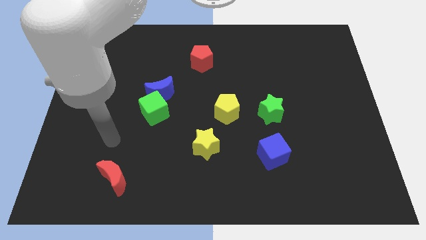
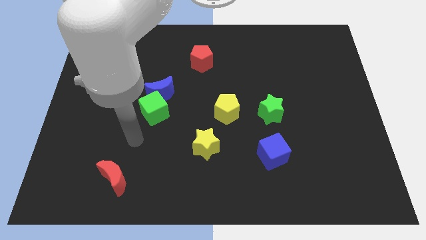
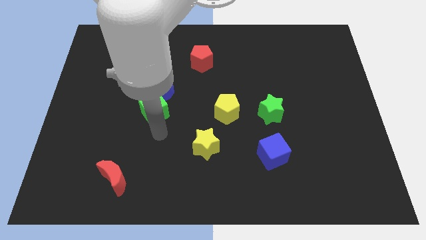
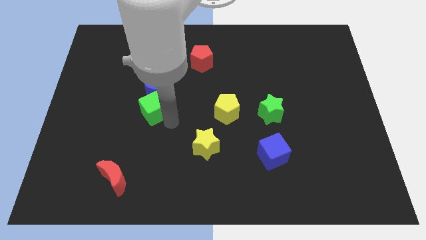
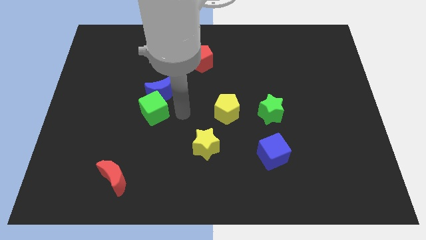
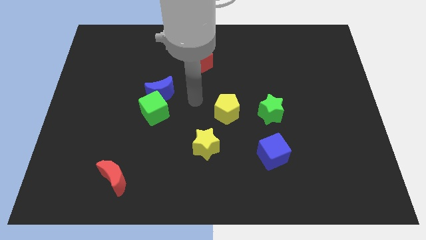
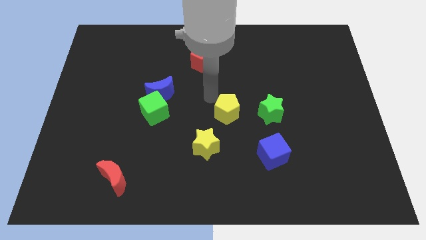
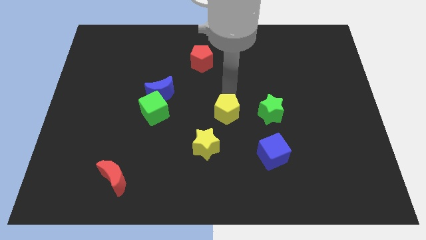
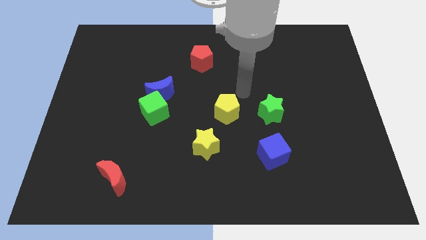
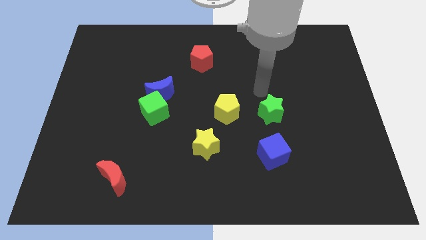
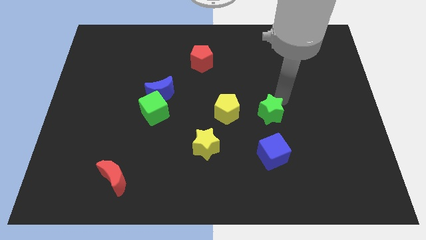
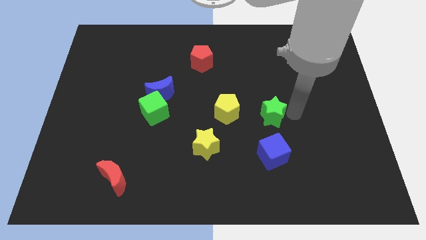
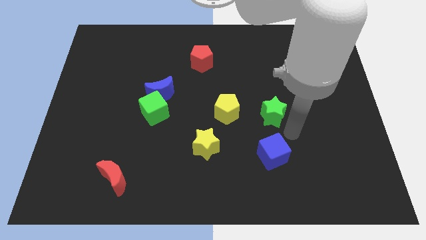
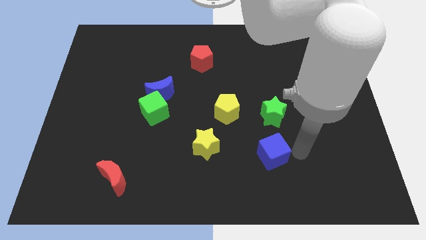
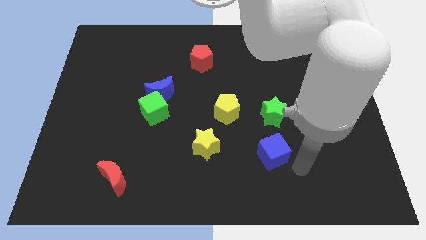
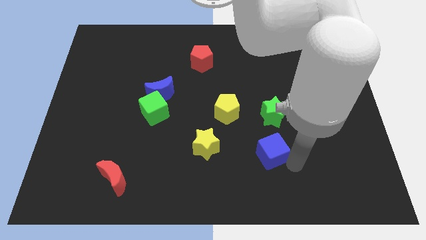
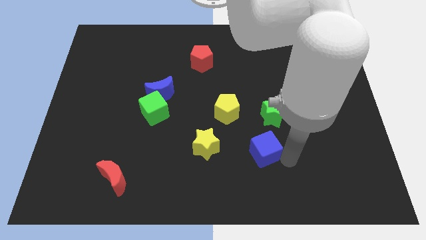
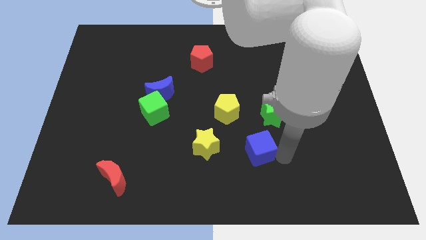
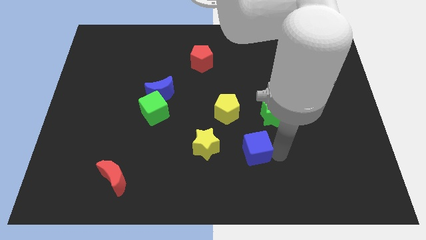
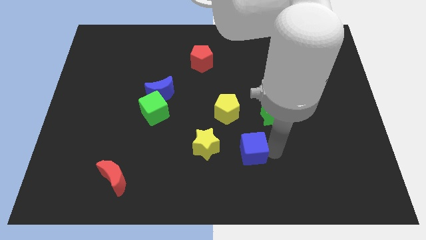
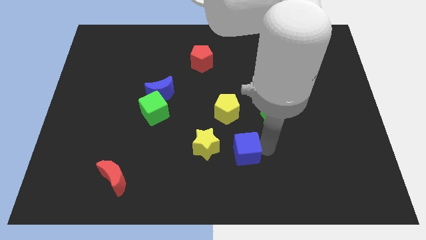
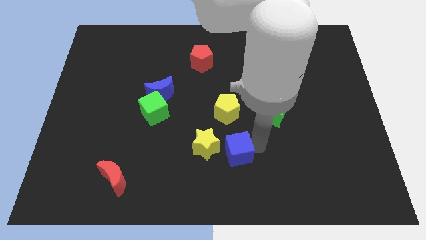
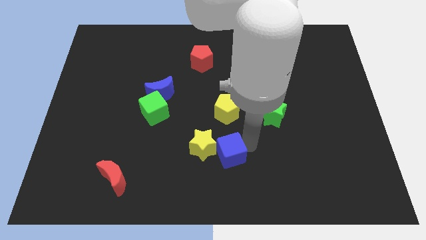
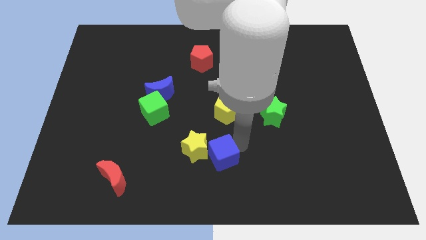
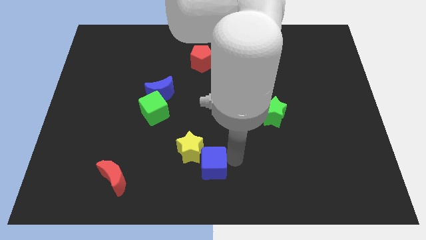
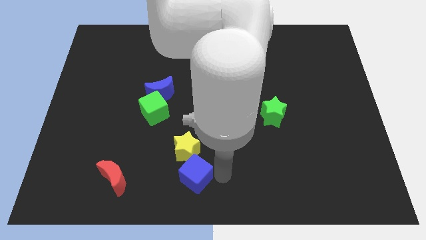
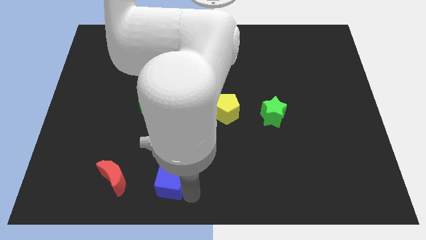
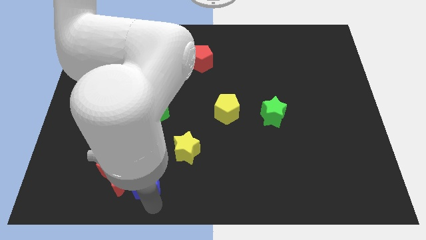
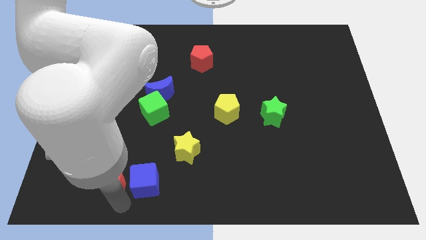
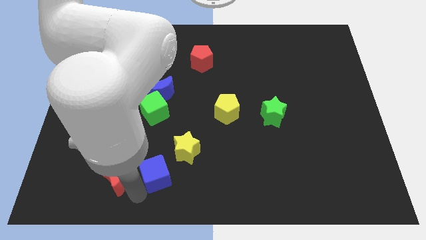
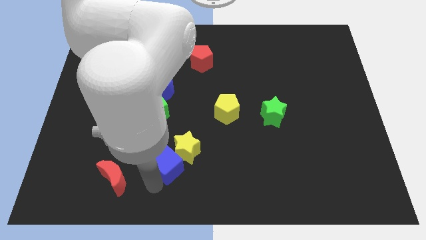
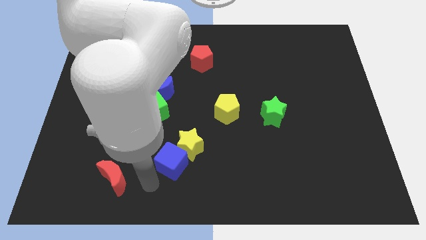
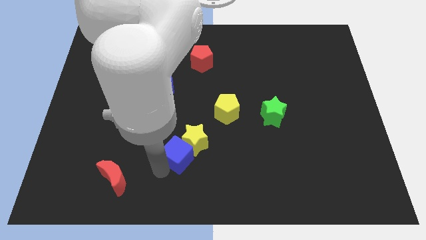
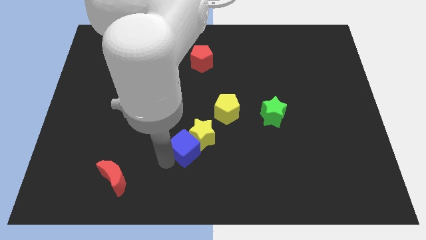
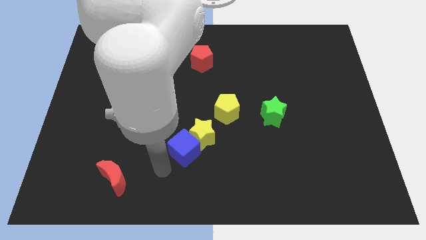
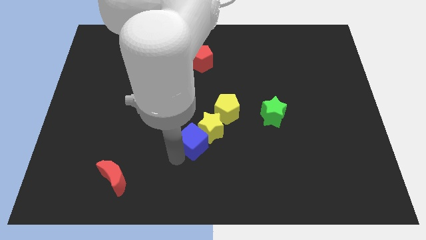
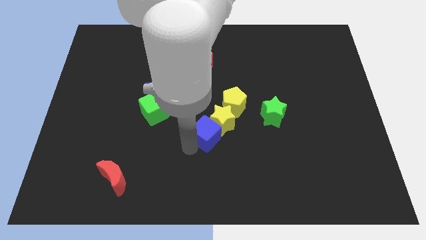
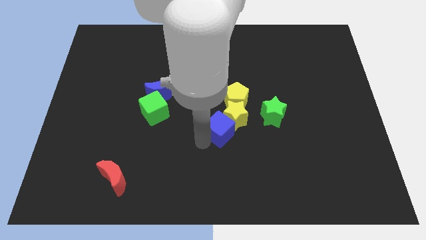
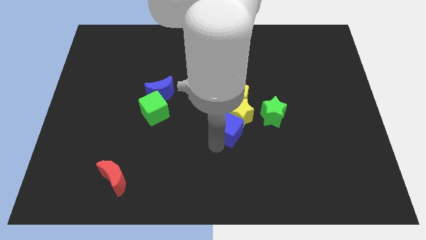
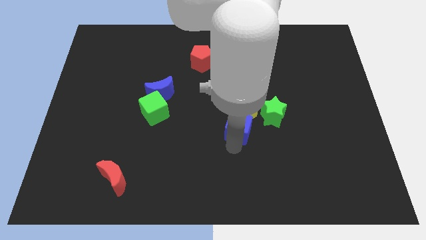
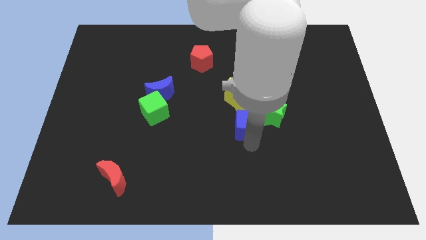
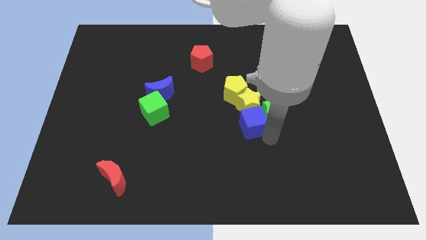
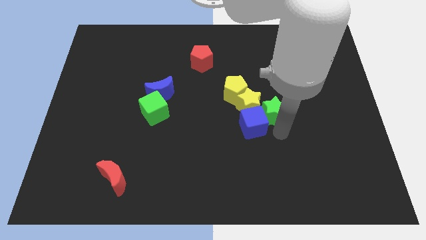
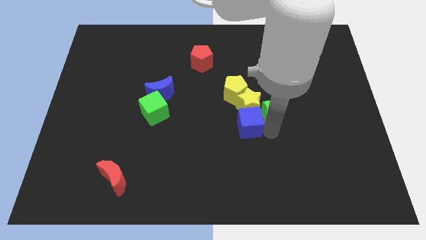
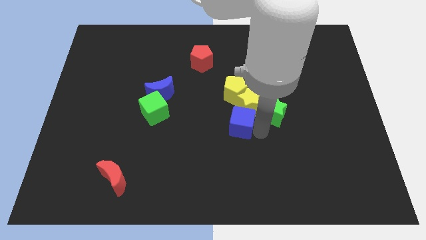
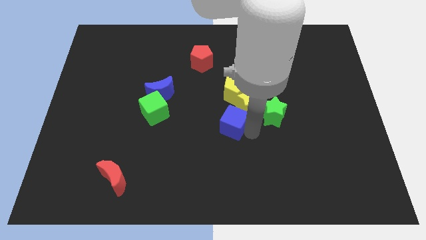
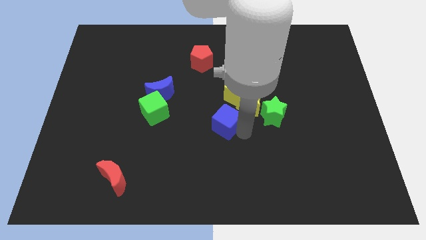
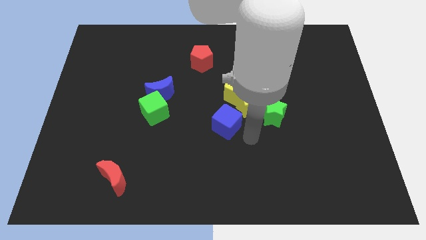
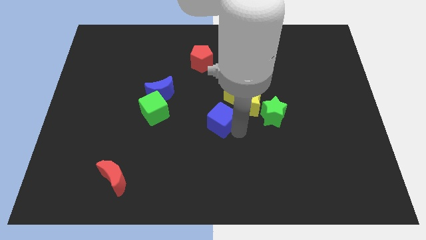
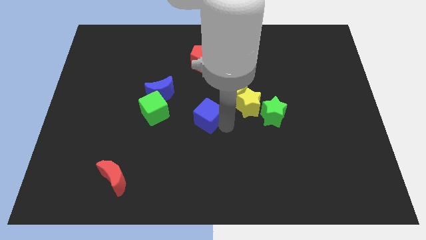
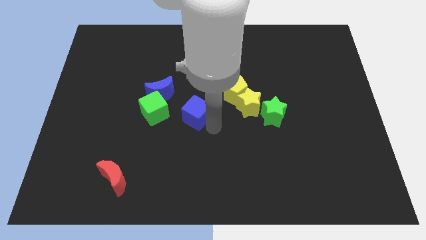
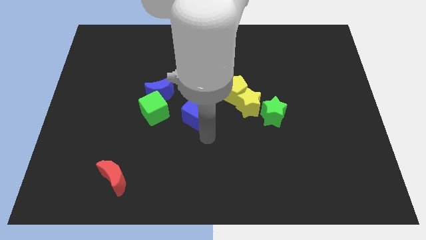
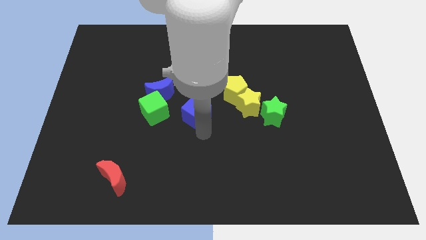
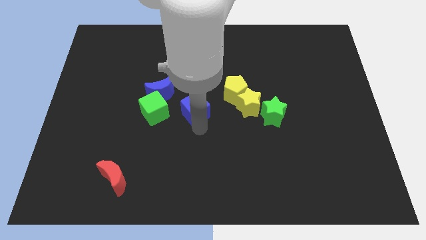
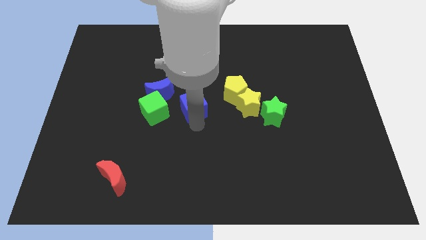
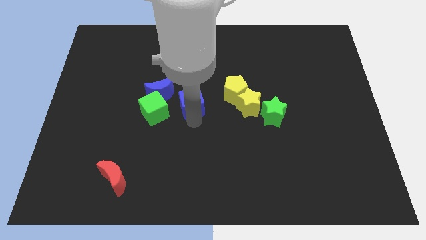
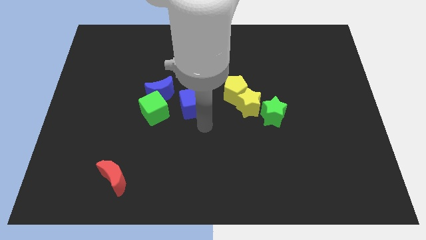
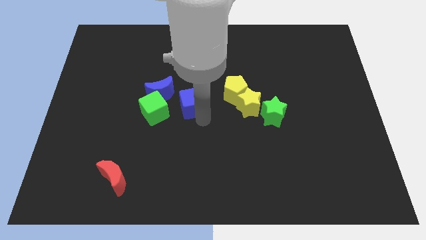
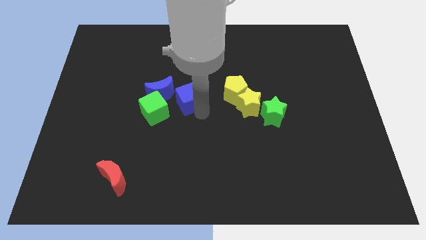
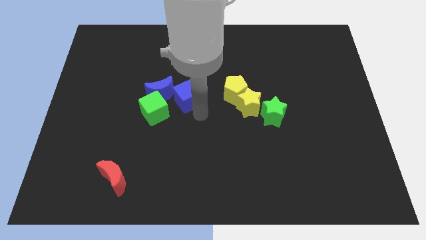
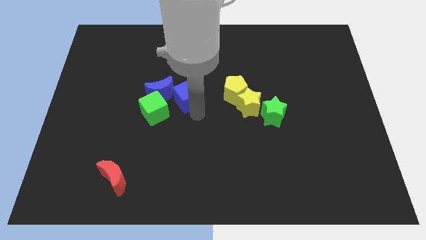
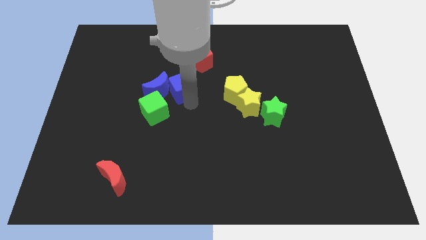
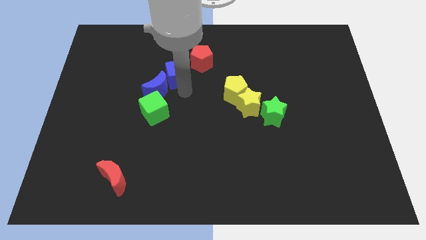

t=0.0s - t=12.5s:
move the blue cube to the top side of the blue moon

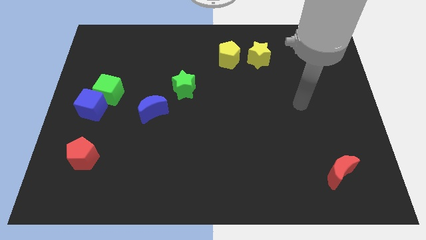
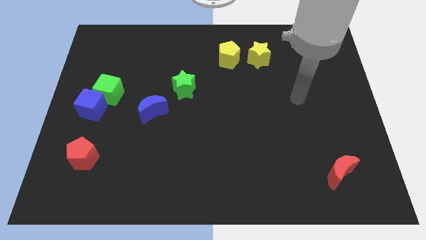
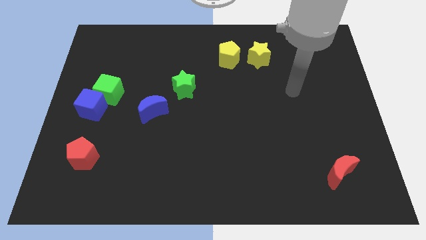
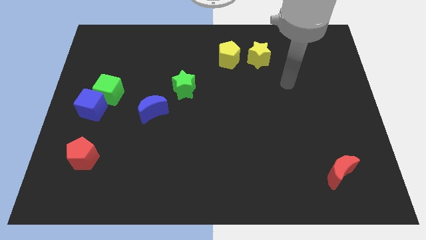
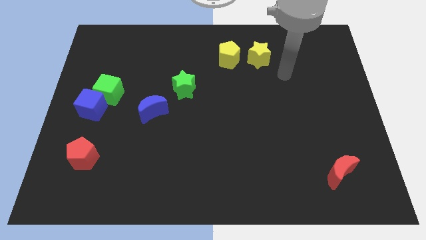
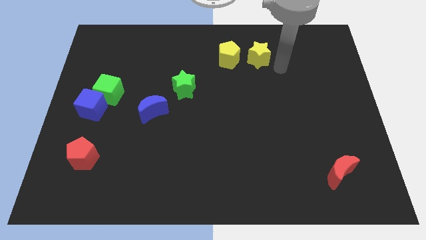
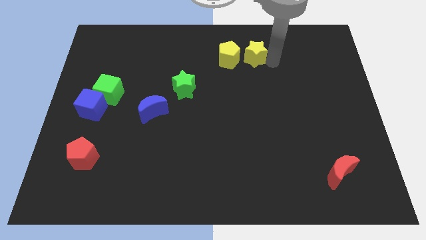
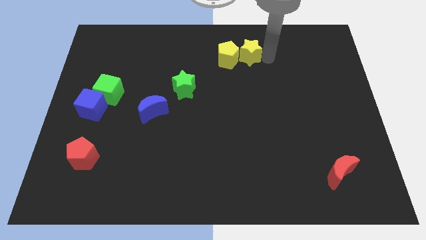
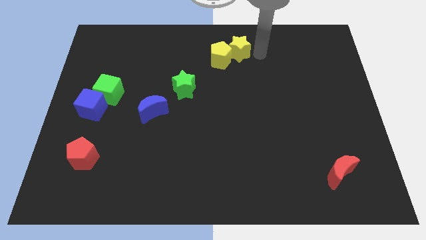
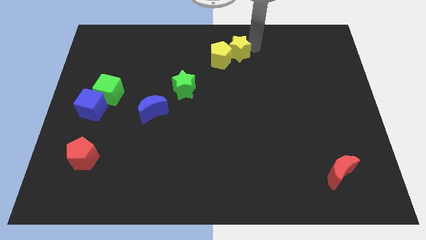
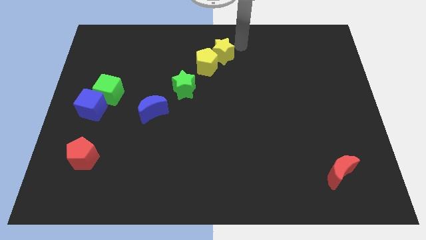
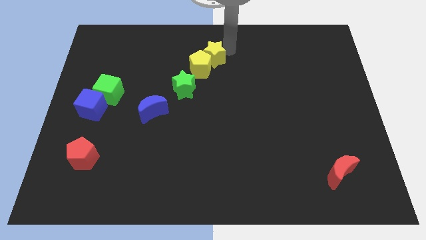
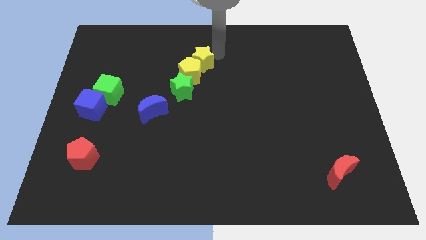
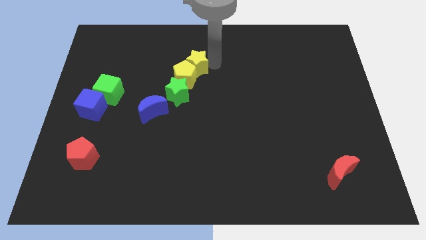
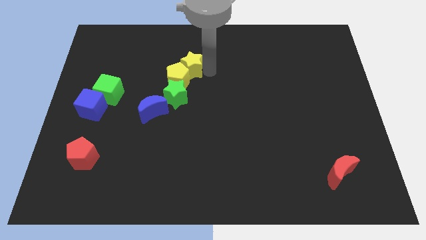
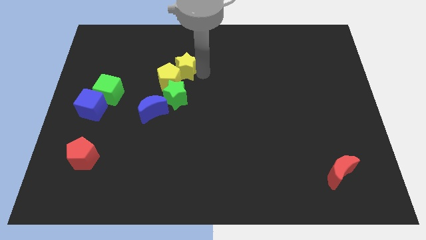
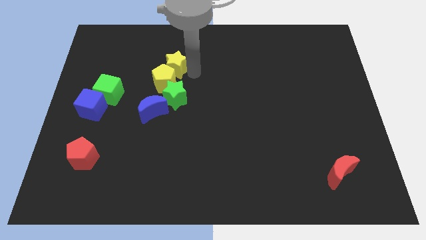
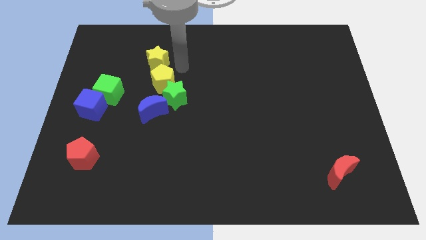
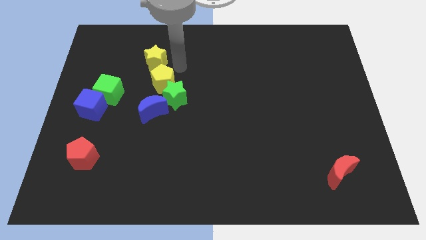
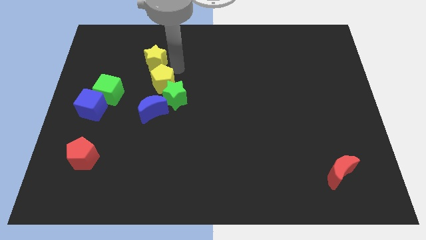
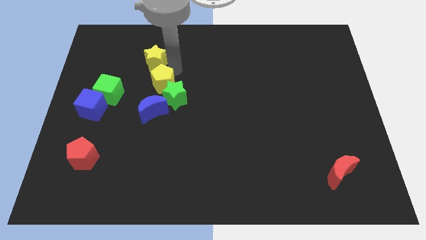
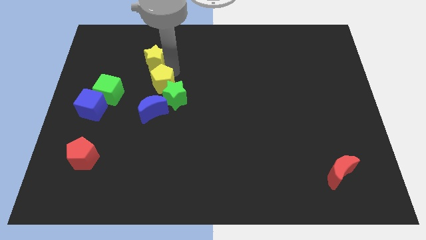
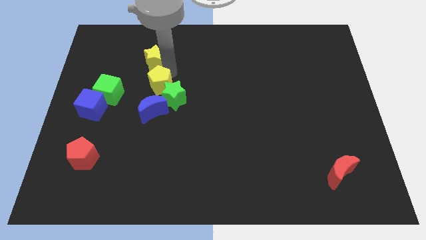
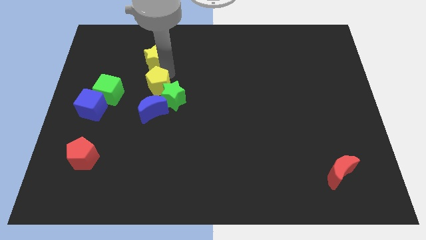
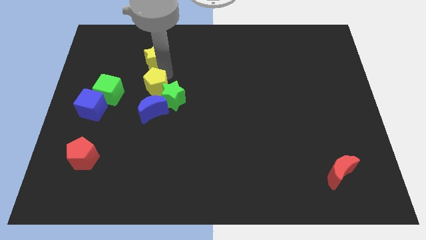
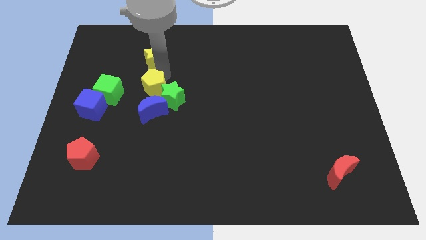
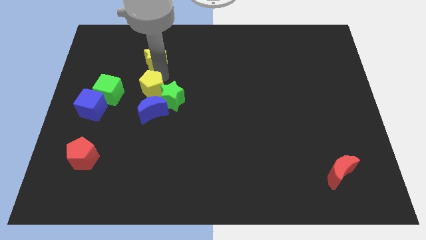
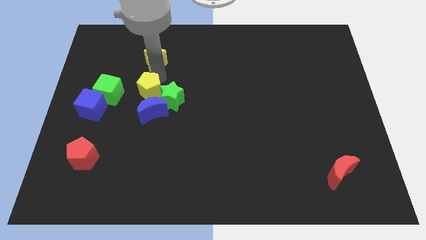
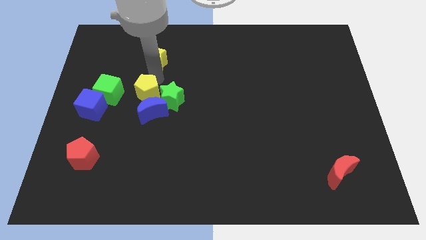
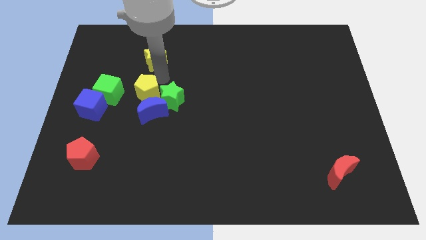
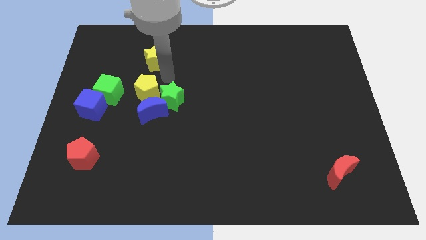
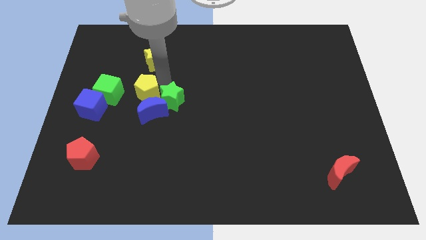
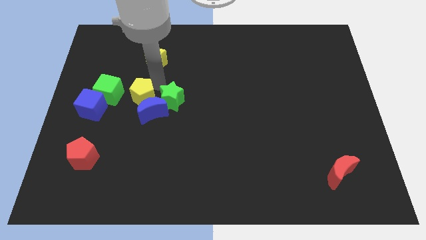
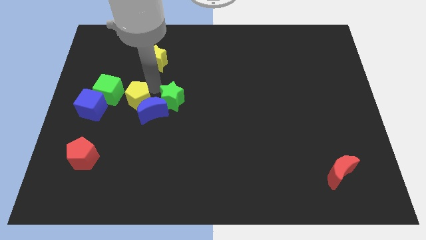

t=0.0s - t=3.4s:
move the yellow pentagon just left of the blue moon
